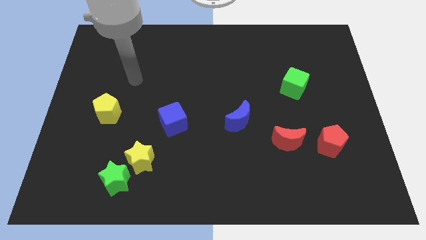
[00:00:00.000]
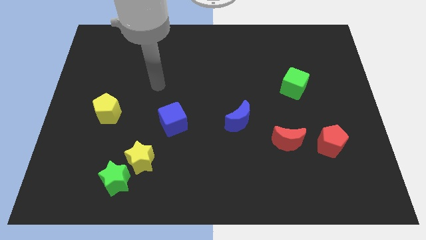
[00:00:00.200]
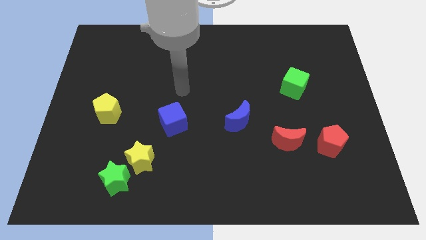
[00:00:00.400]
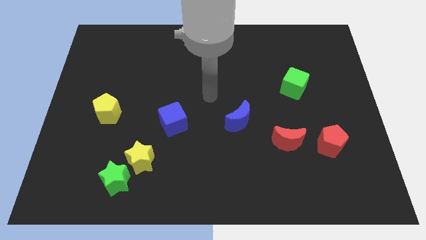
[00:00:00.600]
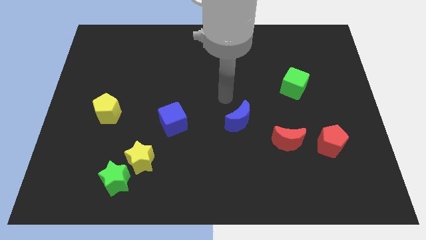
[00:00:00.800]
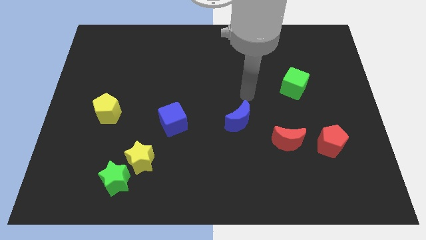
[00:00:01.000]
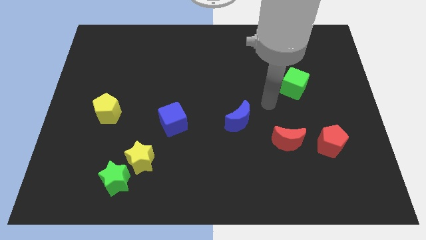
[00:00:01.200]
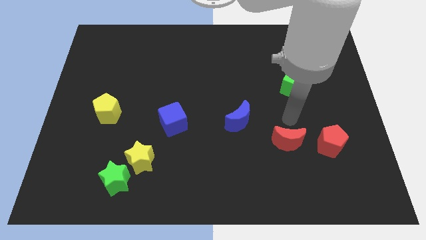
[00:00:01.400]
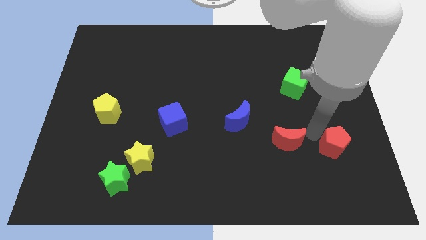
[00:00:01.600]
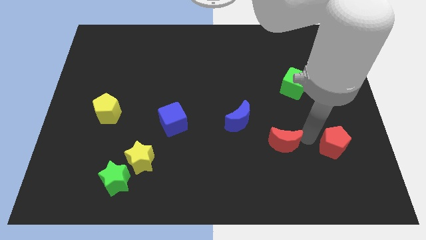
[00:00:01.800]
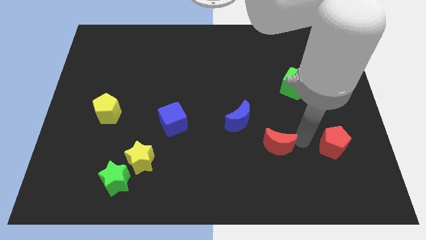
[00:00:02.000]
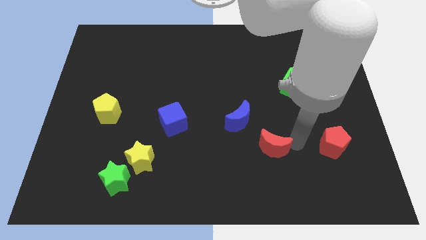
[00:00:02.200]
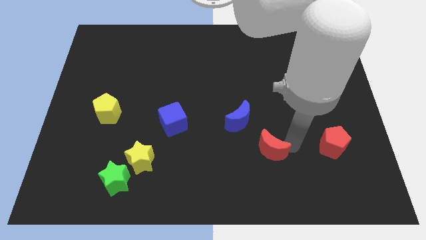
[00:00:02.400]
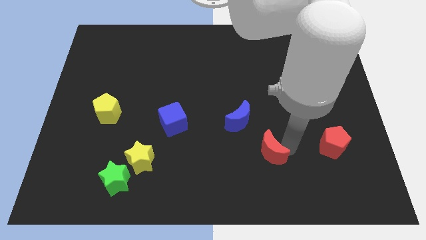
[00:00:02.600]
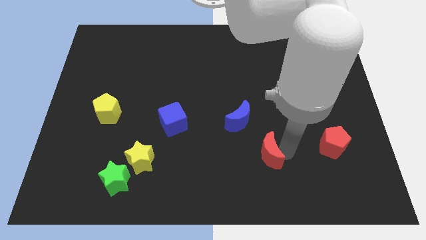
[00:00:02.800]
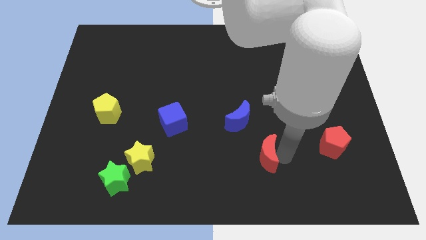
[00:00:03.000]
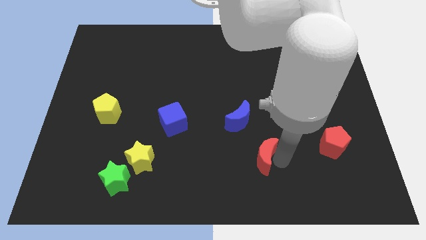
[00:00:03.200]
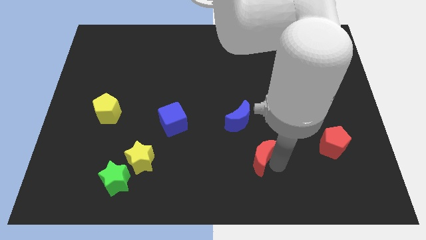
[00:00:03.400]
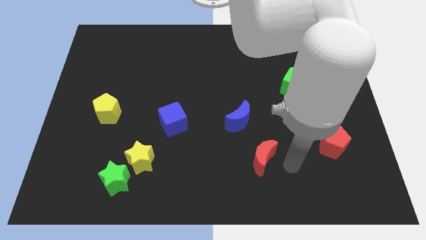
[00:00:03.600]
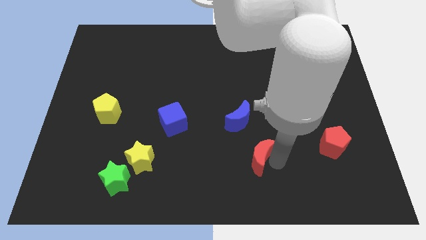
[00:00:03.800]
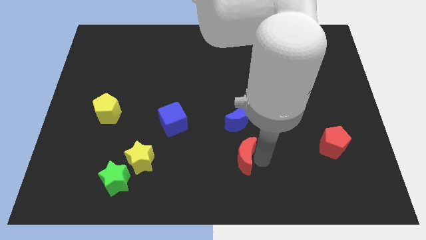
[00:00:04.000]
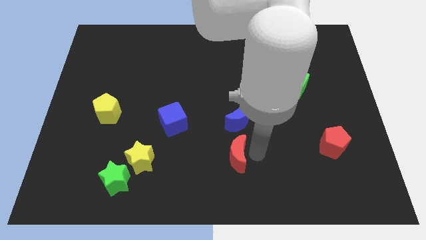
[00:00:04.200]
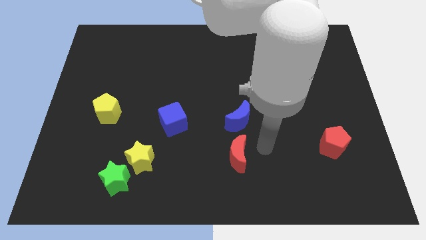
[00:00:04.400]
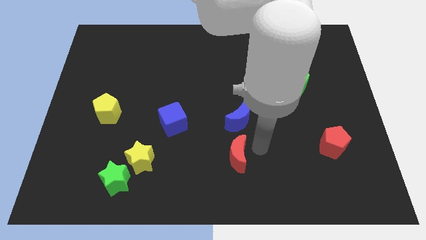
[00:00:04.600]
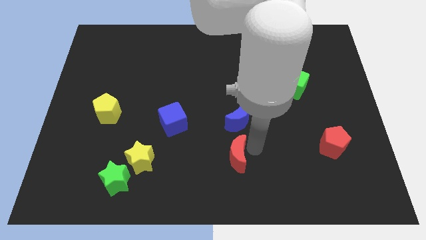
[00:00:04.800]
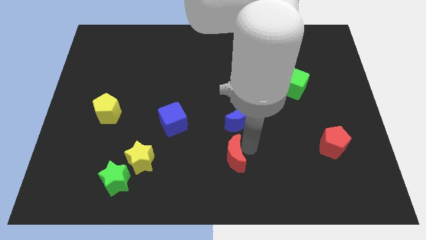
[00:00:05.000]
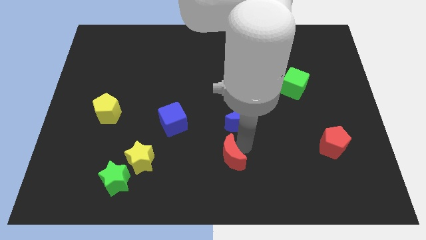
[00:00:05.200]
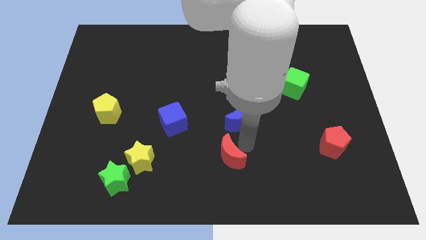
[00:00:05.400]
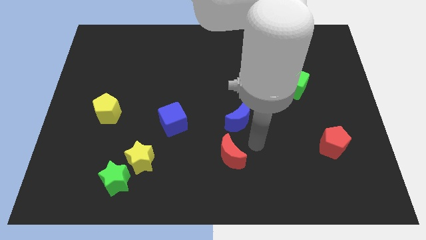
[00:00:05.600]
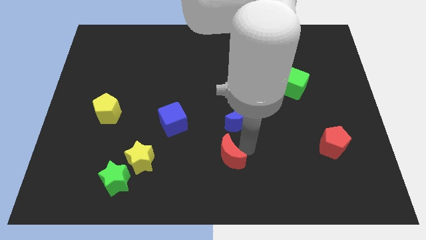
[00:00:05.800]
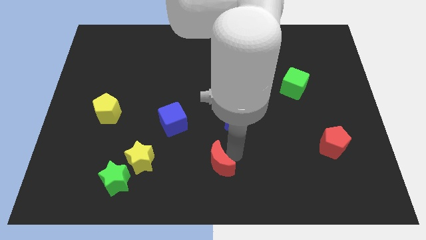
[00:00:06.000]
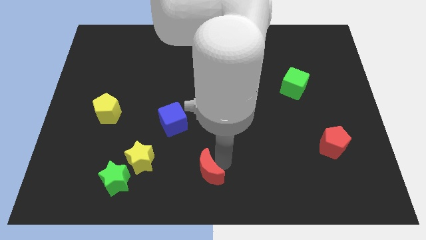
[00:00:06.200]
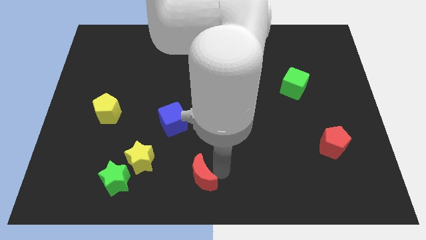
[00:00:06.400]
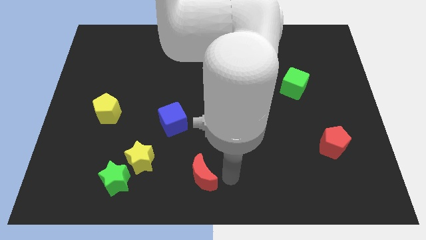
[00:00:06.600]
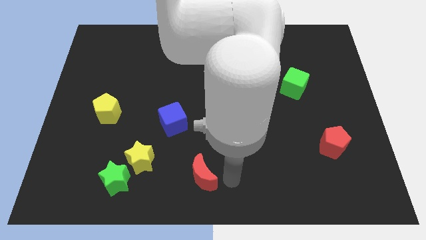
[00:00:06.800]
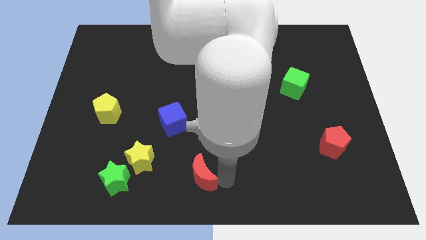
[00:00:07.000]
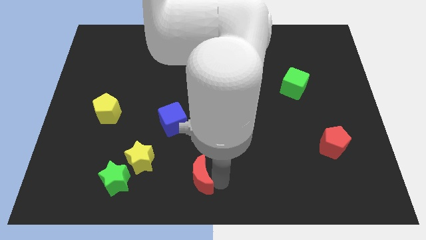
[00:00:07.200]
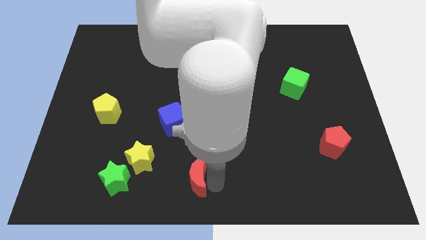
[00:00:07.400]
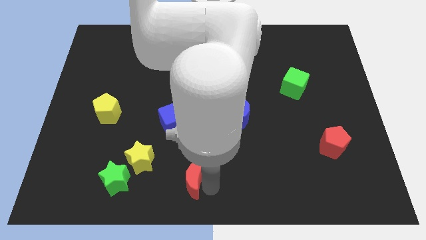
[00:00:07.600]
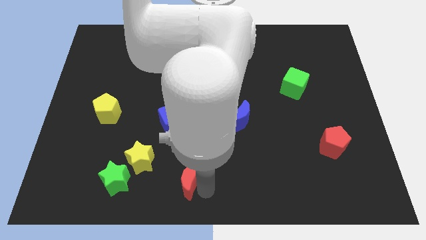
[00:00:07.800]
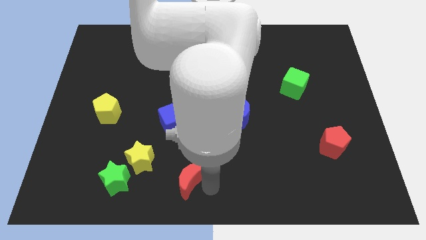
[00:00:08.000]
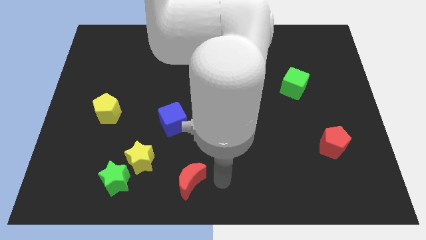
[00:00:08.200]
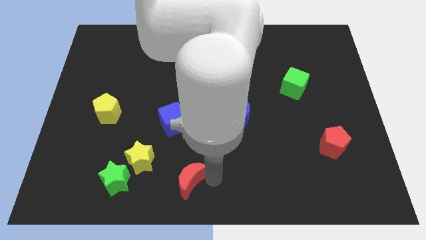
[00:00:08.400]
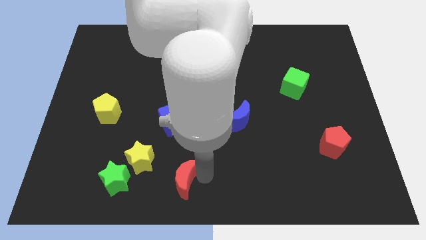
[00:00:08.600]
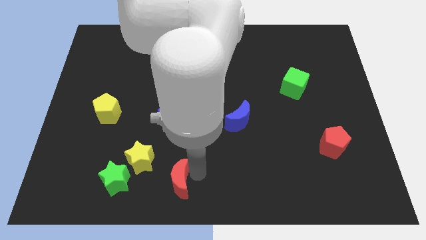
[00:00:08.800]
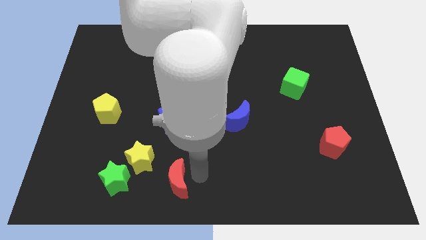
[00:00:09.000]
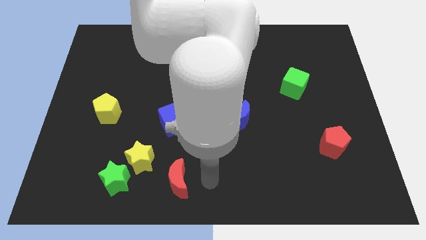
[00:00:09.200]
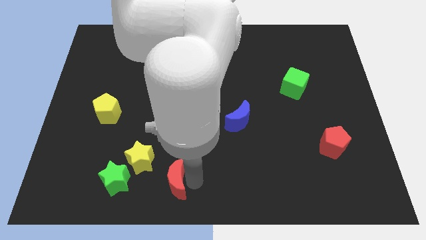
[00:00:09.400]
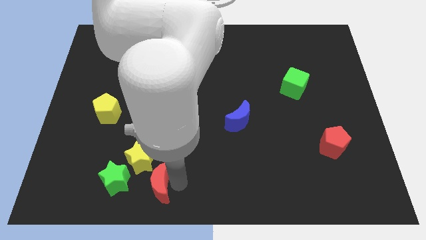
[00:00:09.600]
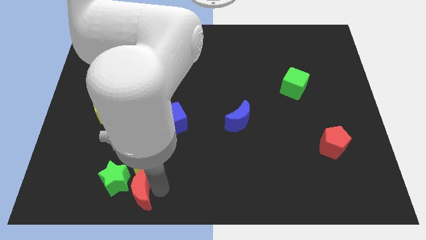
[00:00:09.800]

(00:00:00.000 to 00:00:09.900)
push the red moon close to the green star

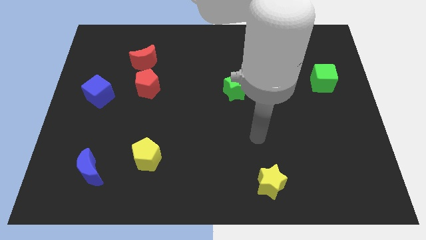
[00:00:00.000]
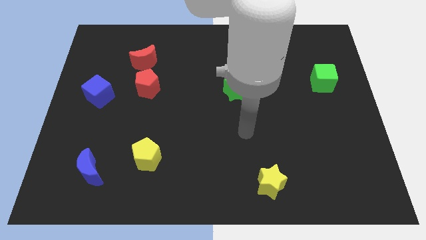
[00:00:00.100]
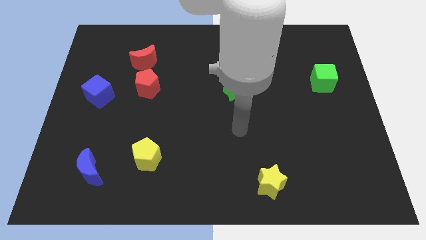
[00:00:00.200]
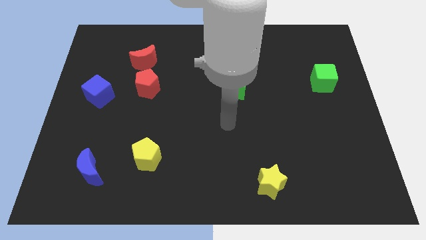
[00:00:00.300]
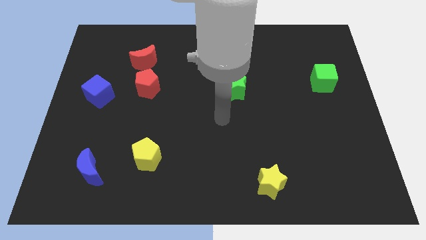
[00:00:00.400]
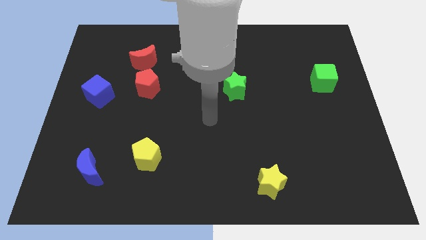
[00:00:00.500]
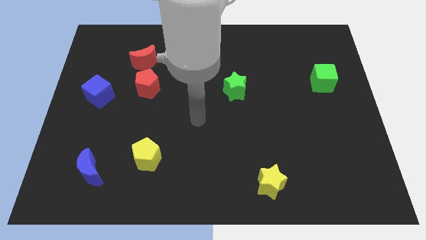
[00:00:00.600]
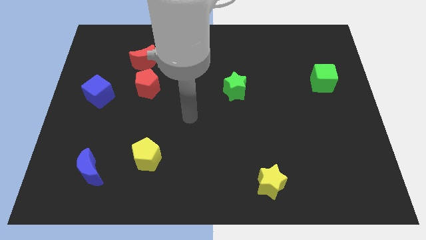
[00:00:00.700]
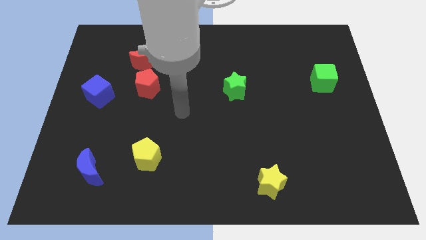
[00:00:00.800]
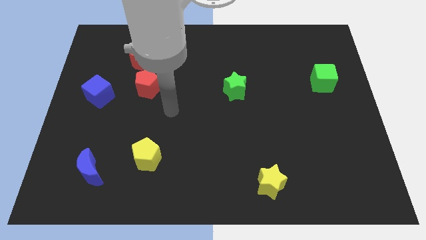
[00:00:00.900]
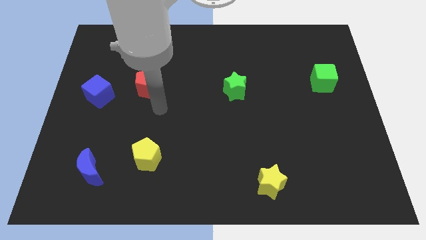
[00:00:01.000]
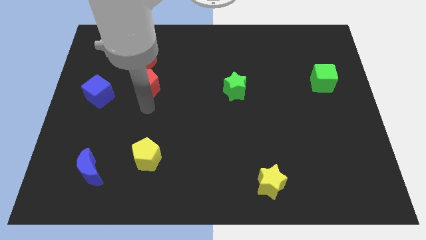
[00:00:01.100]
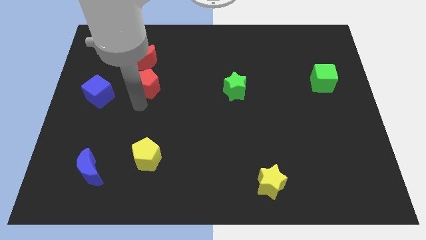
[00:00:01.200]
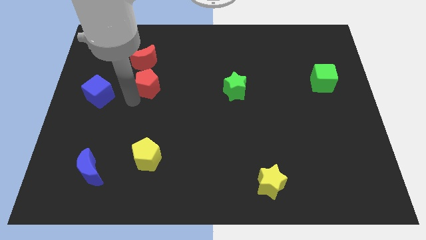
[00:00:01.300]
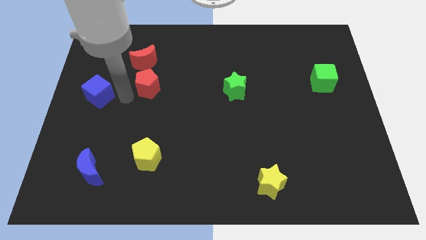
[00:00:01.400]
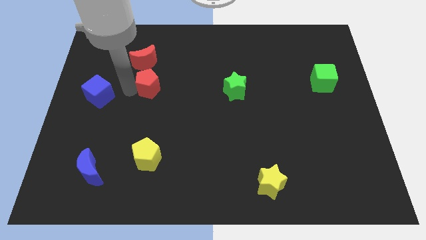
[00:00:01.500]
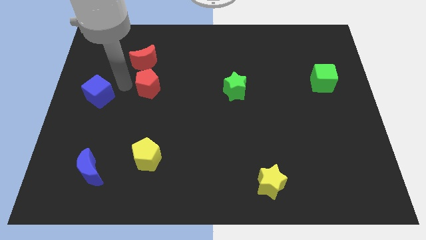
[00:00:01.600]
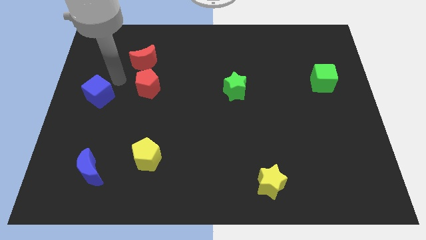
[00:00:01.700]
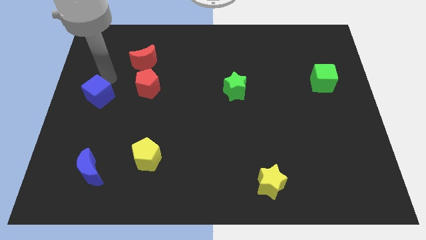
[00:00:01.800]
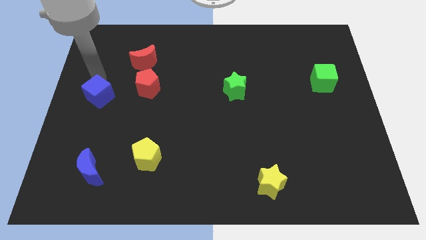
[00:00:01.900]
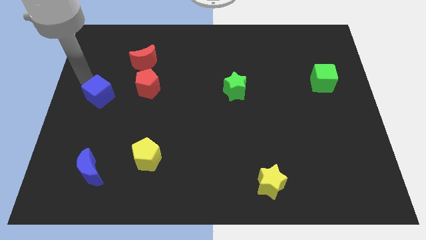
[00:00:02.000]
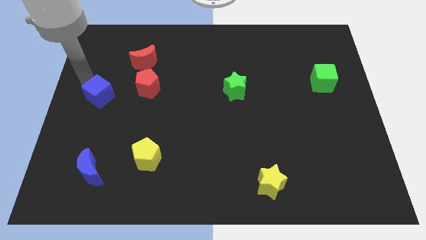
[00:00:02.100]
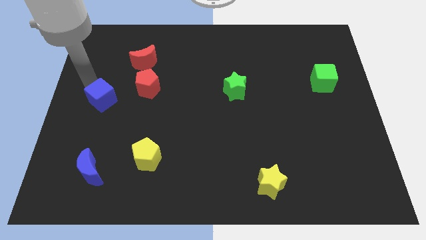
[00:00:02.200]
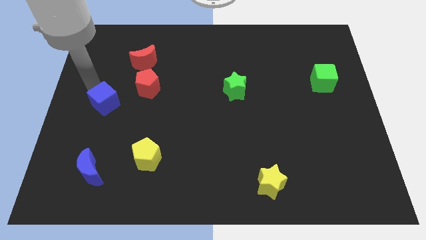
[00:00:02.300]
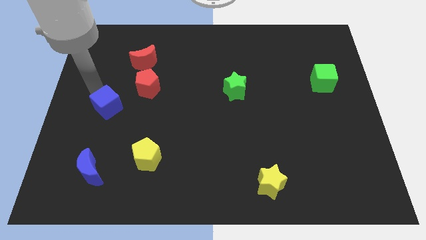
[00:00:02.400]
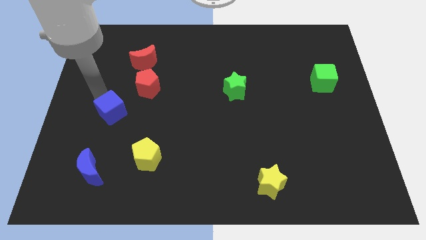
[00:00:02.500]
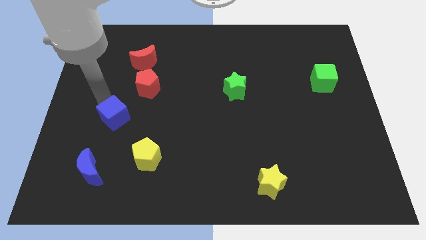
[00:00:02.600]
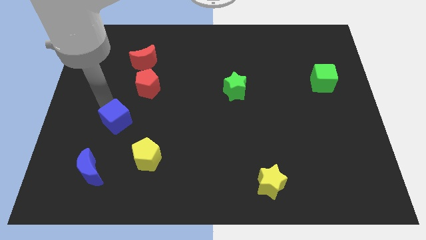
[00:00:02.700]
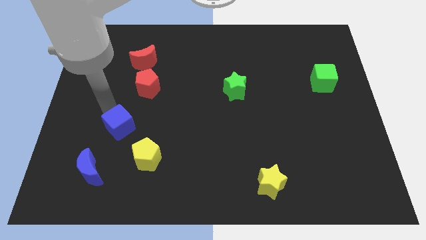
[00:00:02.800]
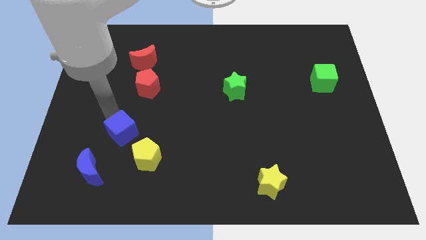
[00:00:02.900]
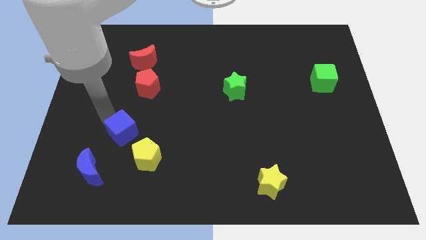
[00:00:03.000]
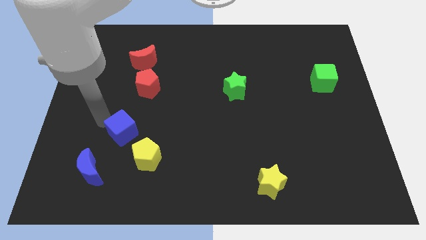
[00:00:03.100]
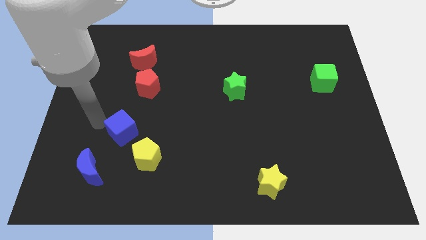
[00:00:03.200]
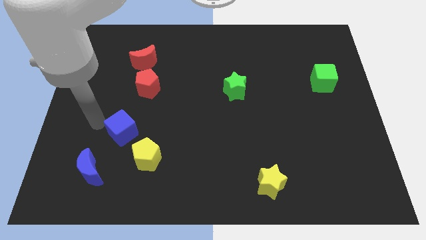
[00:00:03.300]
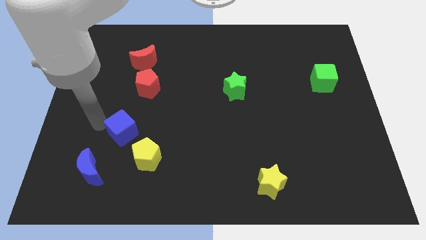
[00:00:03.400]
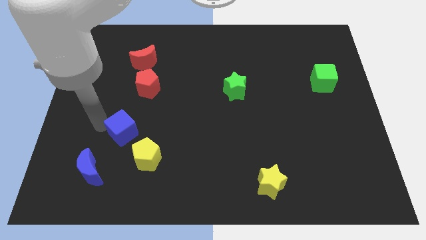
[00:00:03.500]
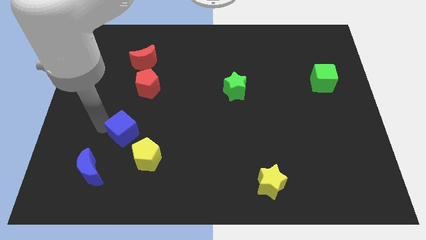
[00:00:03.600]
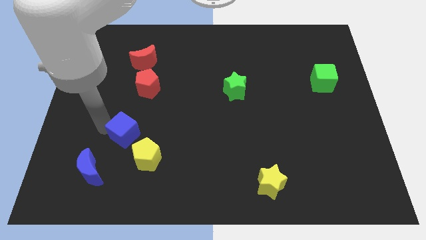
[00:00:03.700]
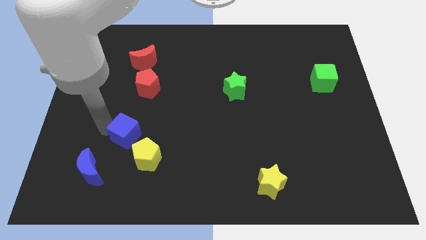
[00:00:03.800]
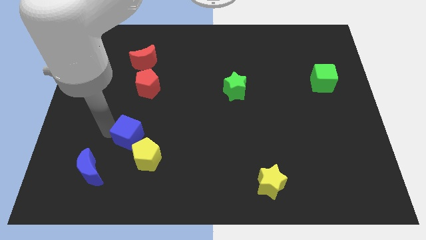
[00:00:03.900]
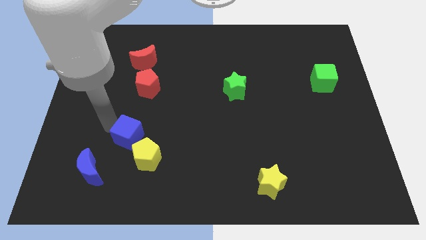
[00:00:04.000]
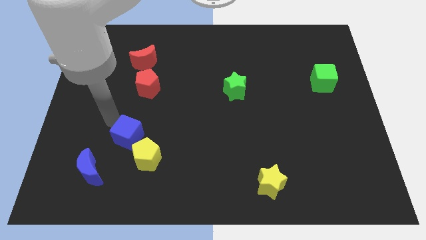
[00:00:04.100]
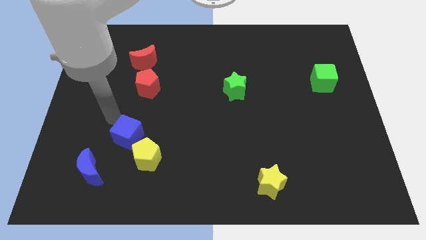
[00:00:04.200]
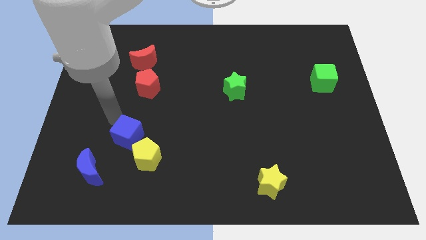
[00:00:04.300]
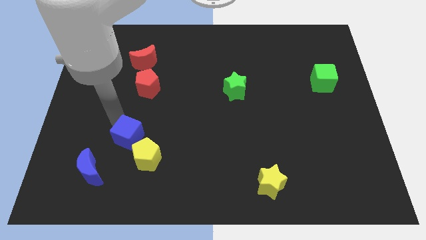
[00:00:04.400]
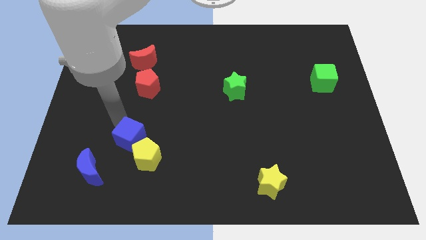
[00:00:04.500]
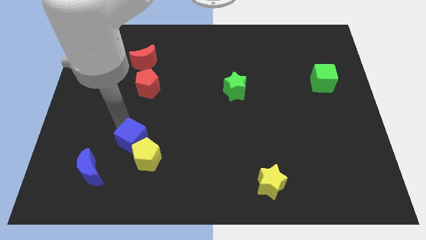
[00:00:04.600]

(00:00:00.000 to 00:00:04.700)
put the blue cube close to the yellow pentagon
